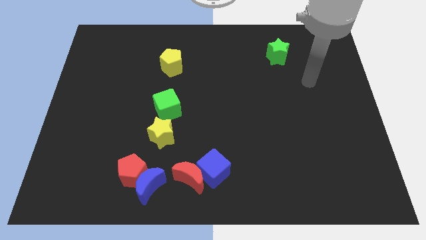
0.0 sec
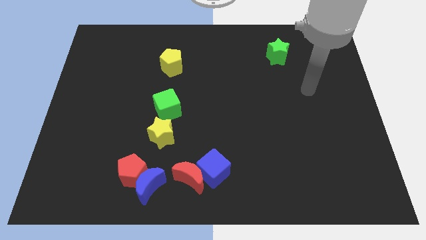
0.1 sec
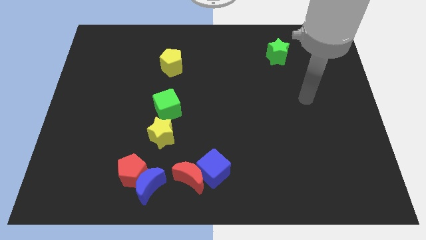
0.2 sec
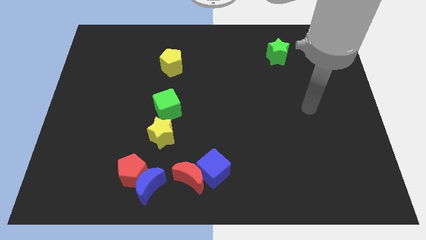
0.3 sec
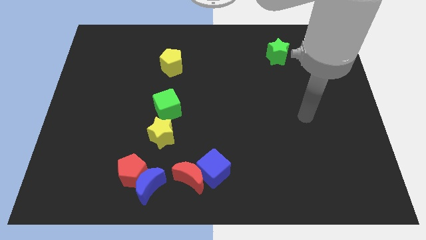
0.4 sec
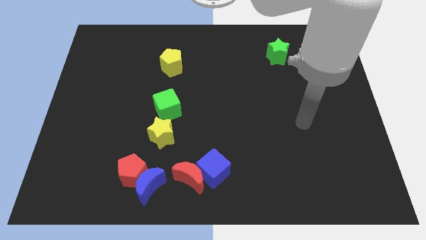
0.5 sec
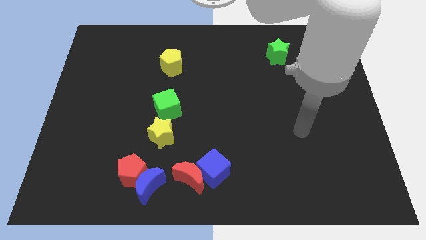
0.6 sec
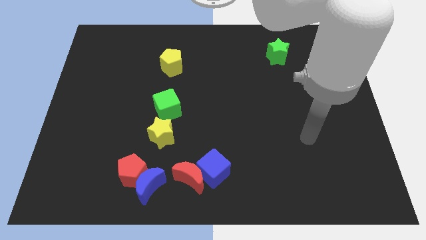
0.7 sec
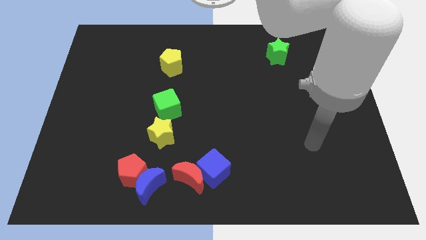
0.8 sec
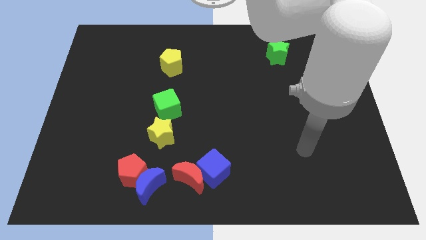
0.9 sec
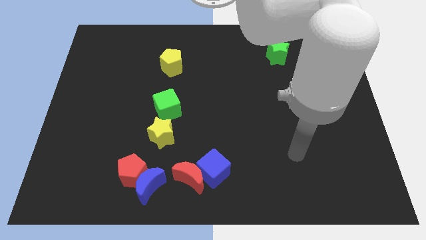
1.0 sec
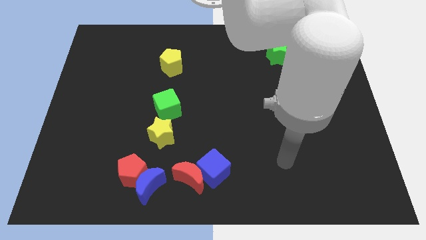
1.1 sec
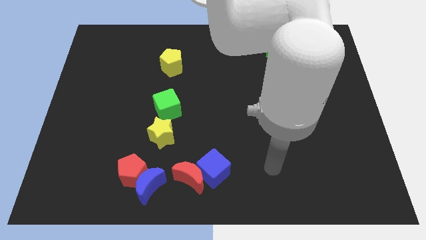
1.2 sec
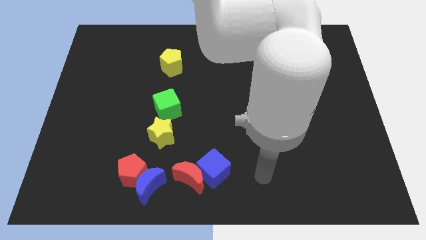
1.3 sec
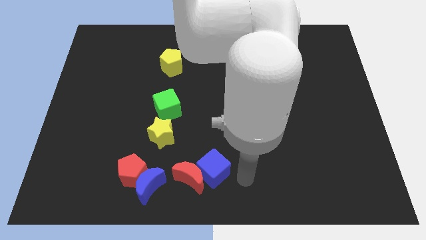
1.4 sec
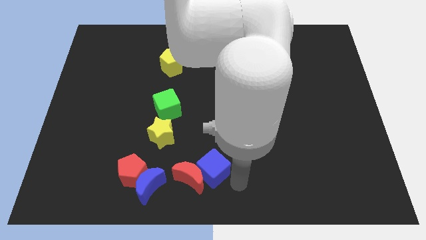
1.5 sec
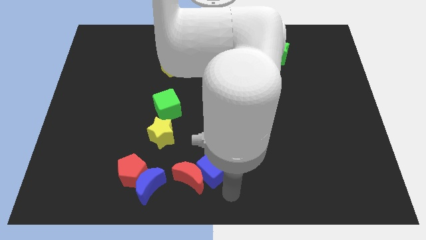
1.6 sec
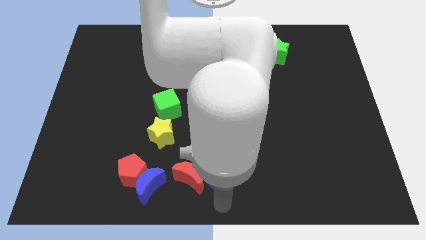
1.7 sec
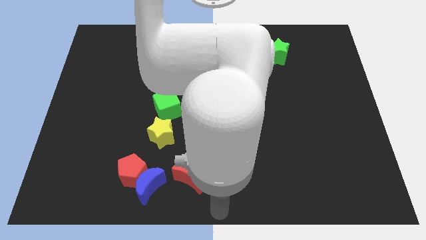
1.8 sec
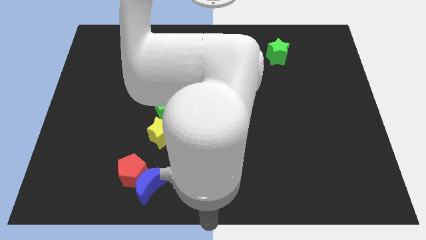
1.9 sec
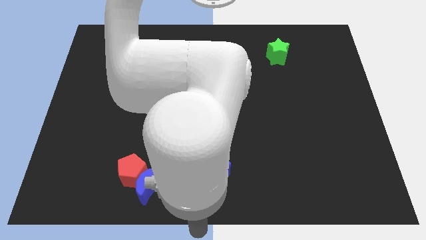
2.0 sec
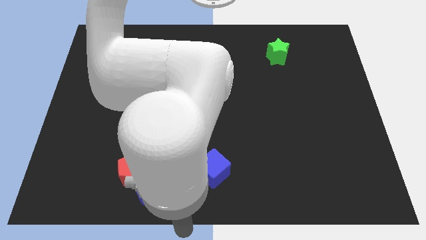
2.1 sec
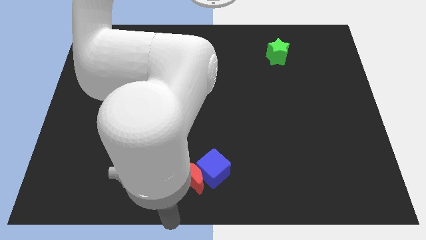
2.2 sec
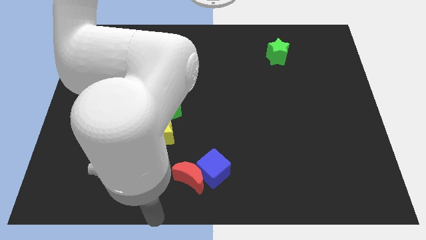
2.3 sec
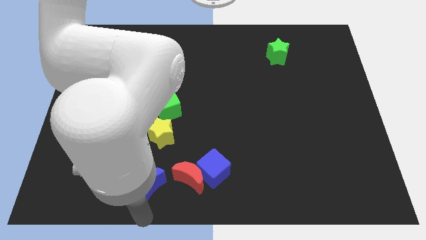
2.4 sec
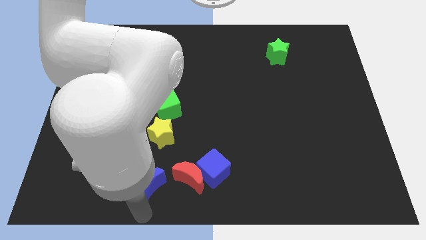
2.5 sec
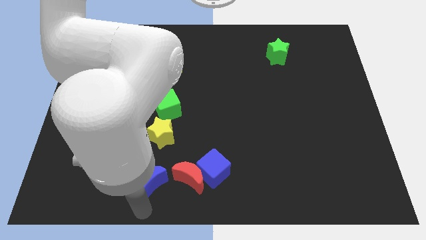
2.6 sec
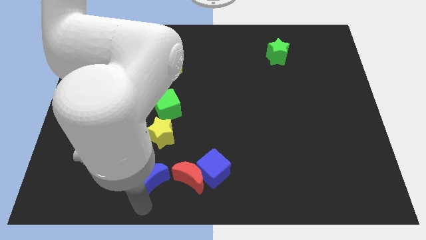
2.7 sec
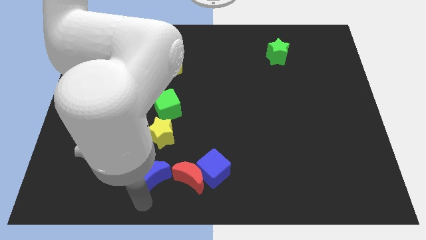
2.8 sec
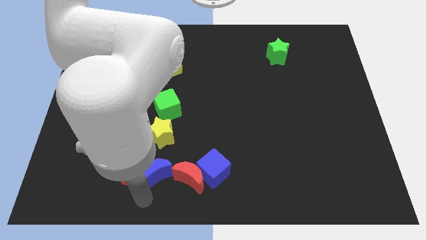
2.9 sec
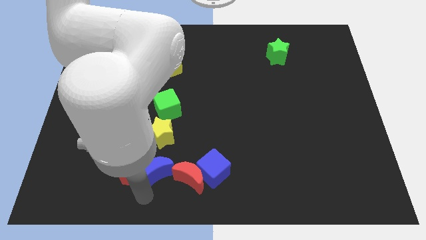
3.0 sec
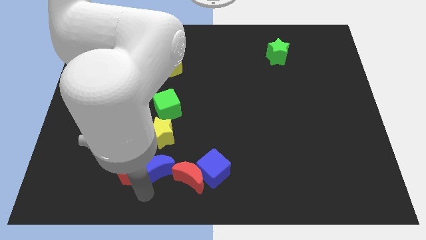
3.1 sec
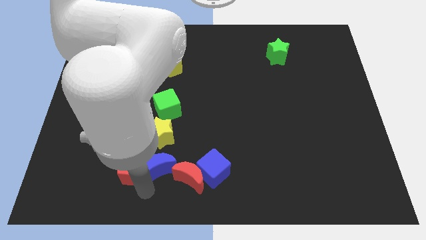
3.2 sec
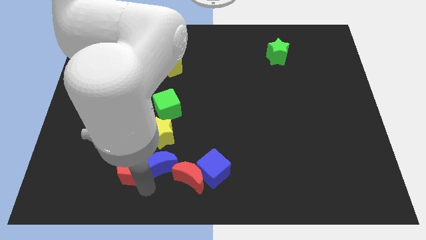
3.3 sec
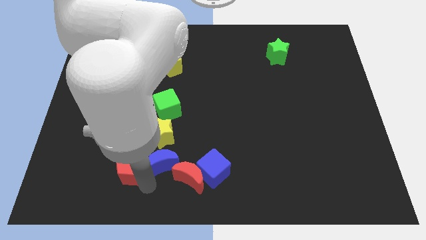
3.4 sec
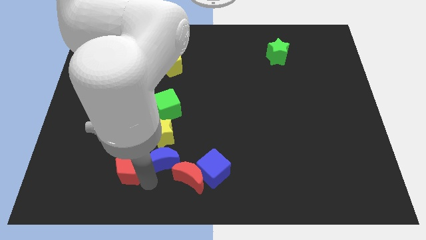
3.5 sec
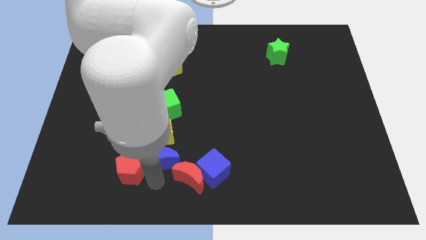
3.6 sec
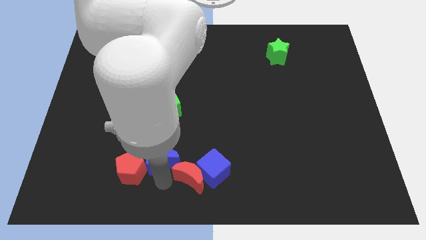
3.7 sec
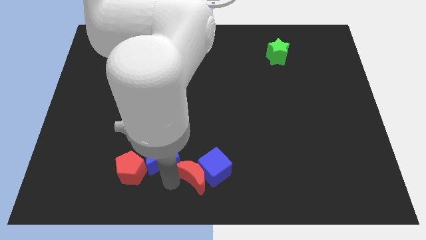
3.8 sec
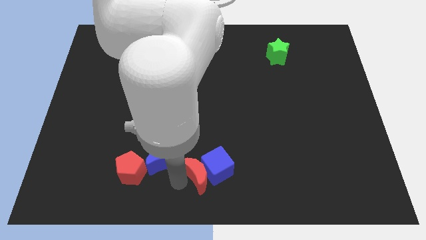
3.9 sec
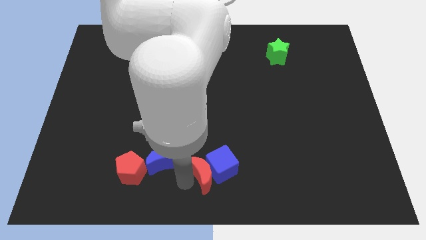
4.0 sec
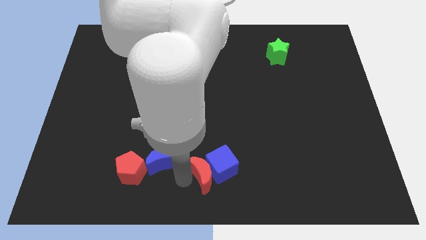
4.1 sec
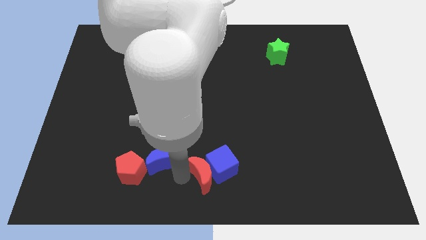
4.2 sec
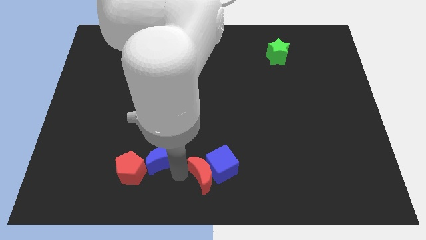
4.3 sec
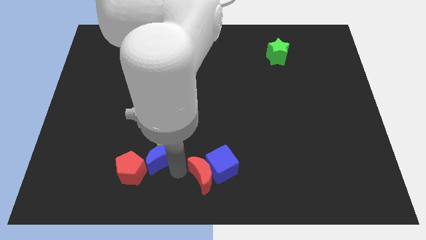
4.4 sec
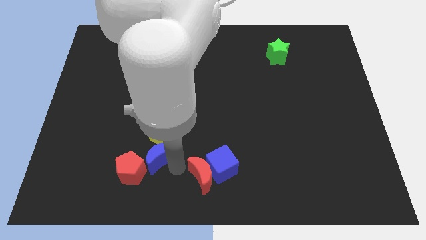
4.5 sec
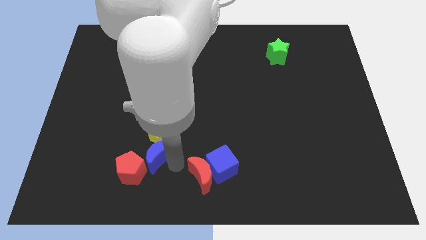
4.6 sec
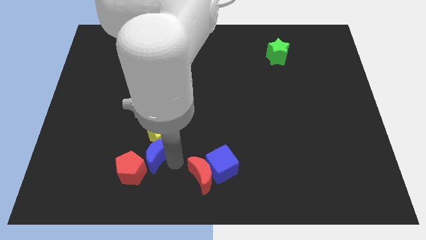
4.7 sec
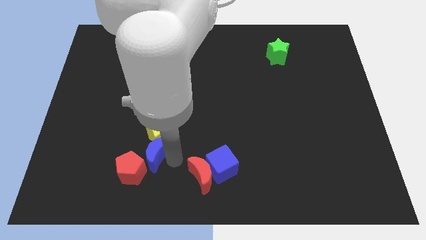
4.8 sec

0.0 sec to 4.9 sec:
slide the blue moon above the red pentagon

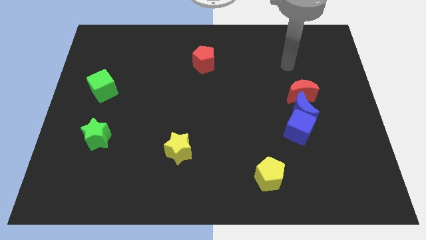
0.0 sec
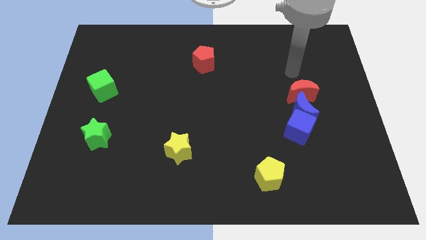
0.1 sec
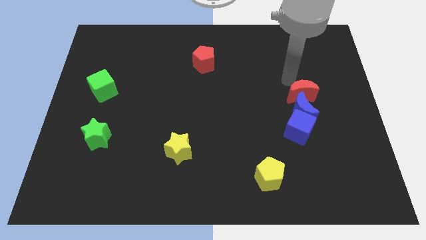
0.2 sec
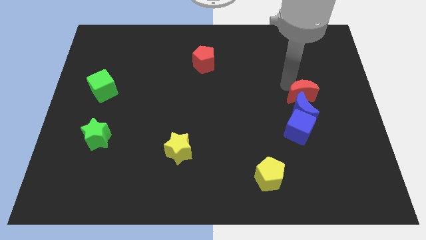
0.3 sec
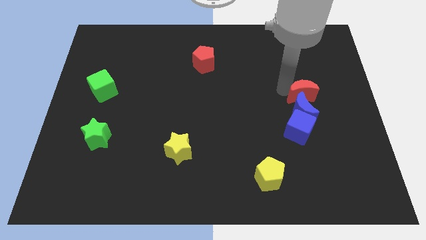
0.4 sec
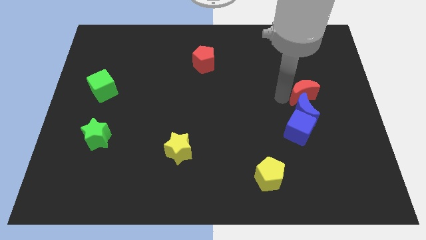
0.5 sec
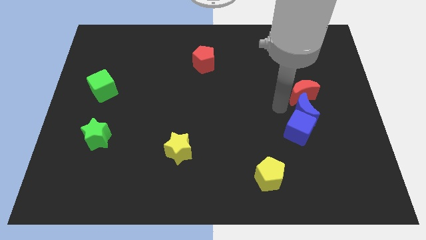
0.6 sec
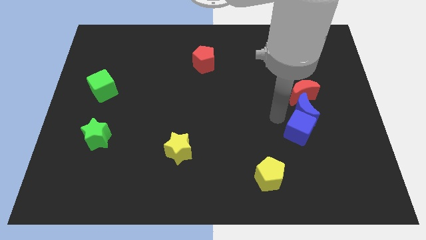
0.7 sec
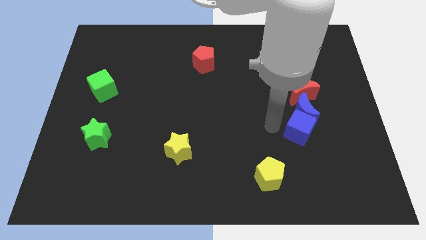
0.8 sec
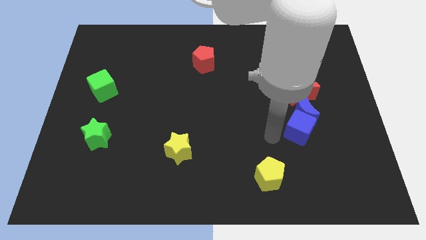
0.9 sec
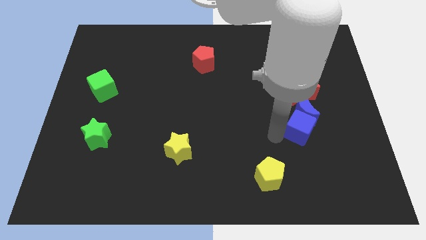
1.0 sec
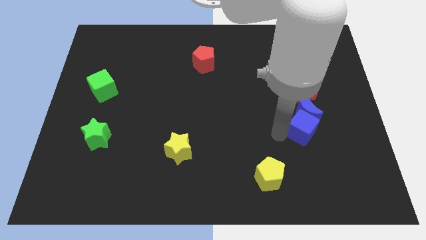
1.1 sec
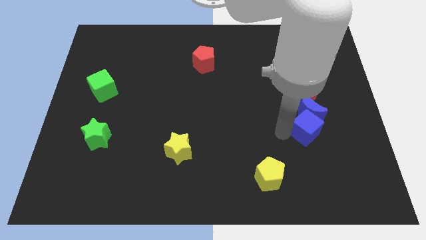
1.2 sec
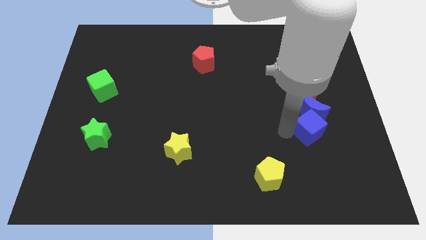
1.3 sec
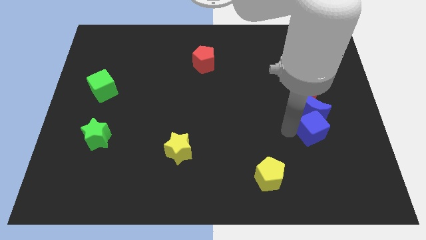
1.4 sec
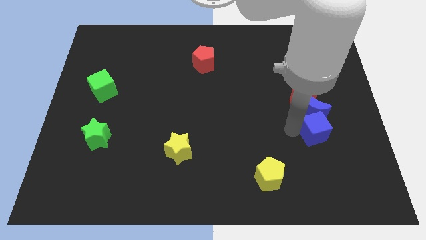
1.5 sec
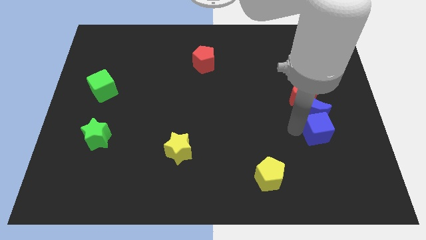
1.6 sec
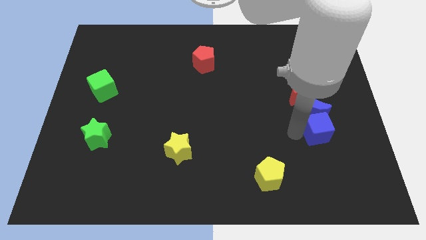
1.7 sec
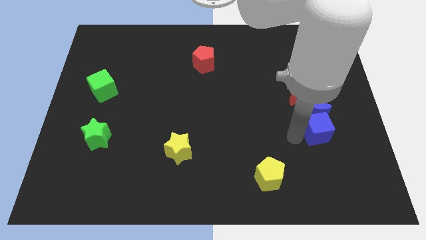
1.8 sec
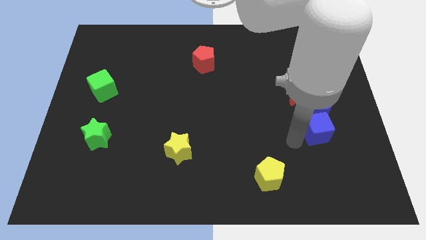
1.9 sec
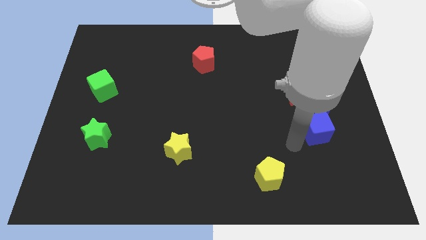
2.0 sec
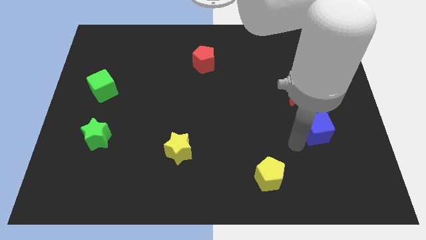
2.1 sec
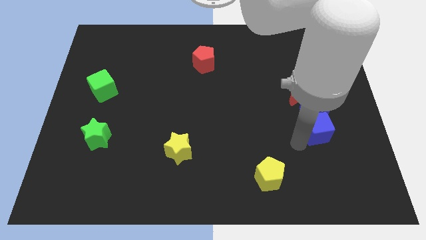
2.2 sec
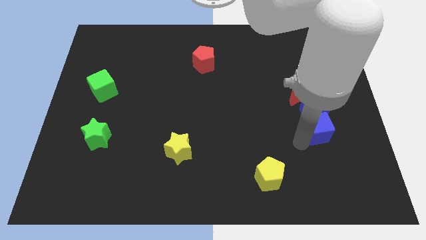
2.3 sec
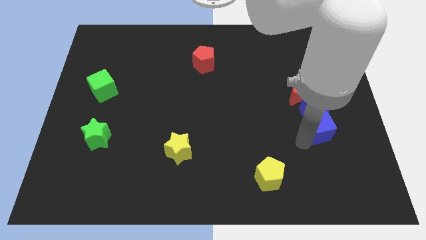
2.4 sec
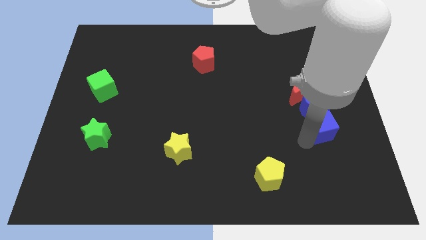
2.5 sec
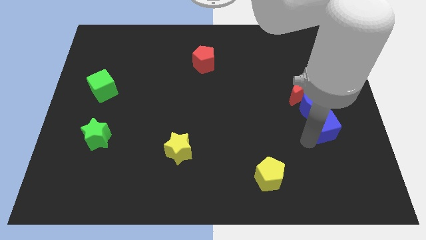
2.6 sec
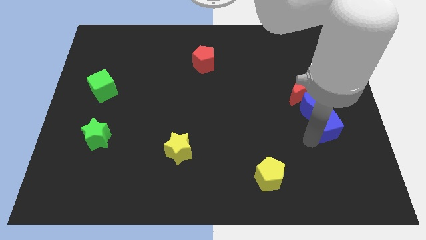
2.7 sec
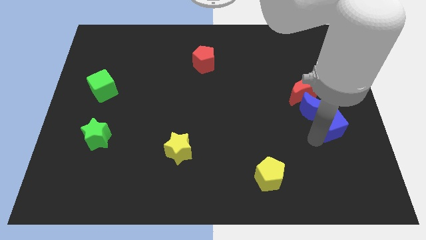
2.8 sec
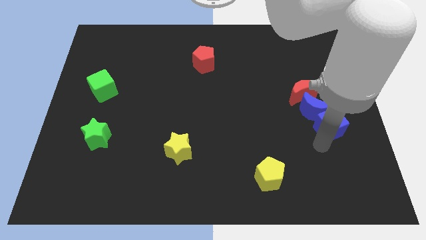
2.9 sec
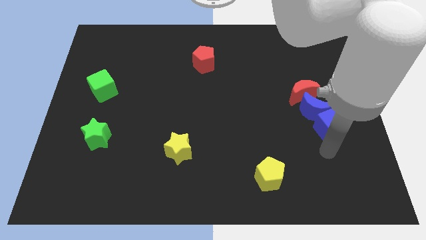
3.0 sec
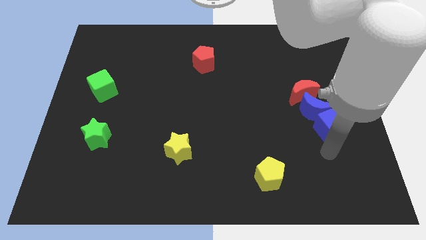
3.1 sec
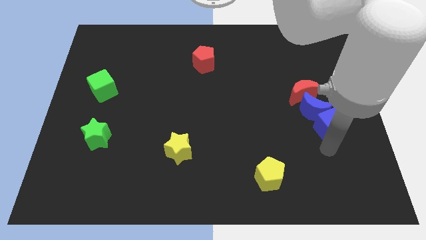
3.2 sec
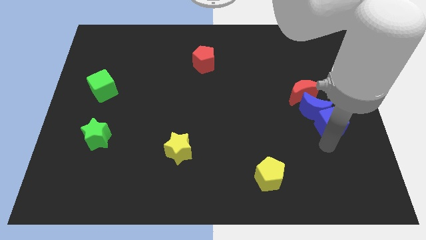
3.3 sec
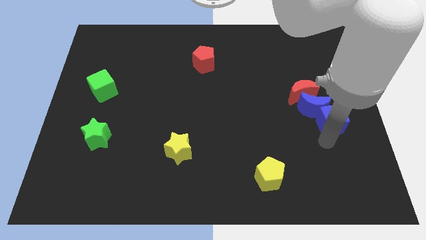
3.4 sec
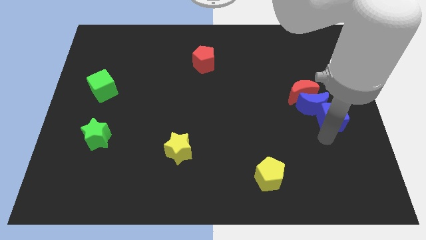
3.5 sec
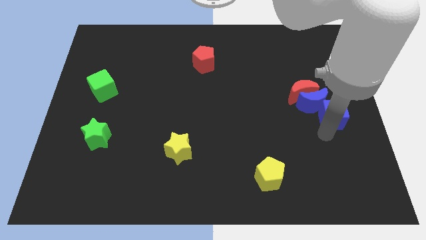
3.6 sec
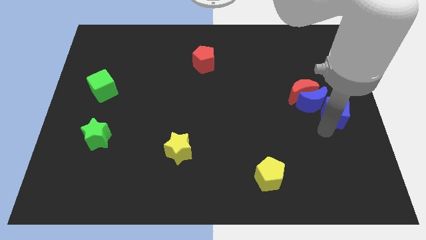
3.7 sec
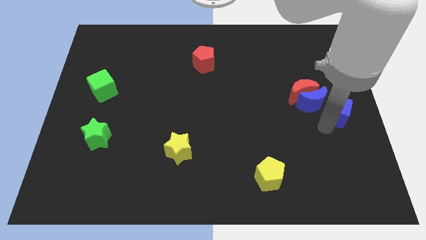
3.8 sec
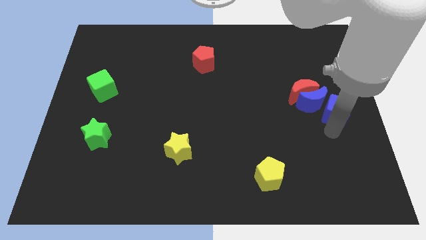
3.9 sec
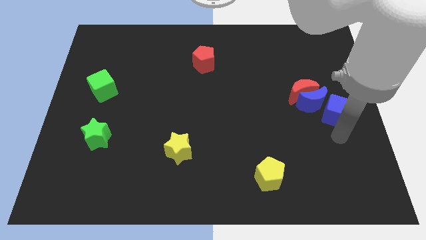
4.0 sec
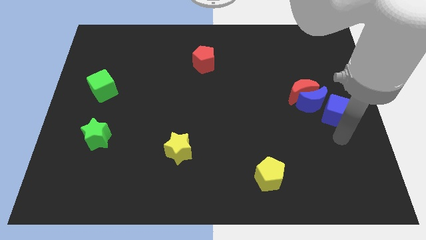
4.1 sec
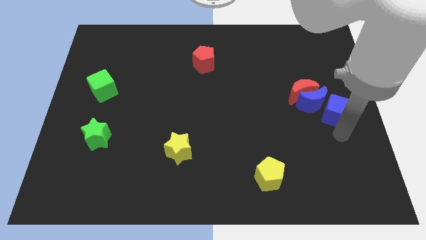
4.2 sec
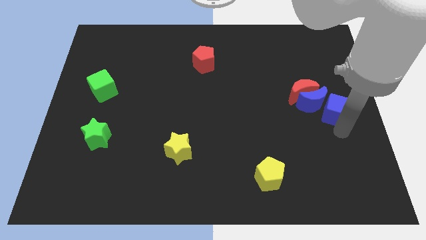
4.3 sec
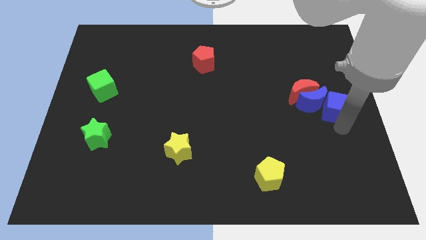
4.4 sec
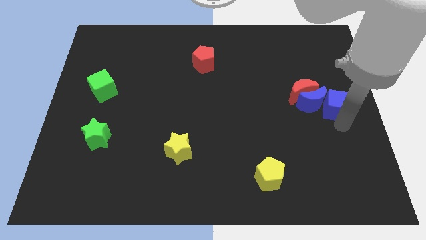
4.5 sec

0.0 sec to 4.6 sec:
move the blue cube diagonally up and to the right of the blue moon
